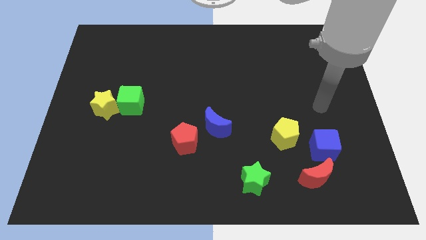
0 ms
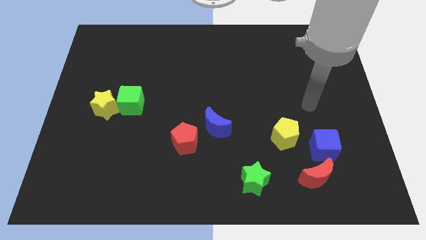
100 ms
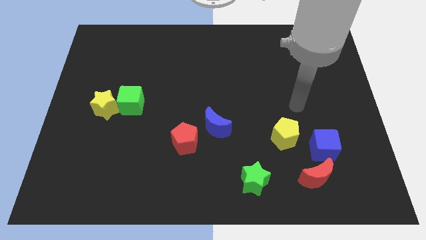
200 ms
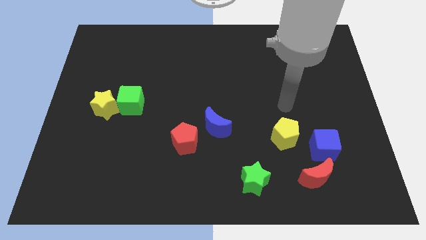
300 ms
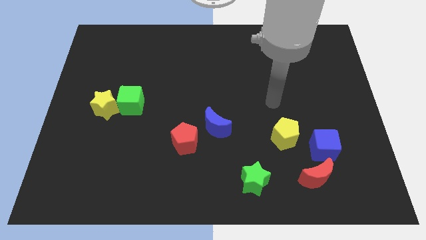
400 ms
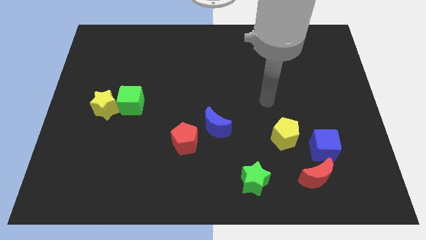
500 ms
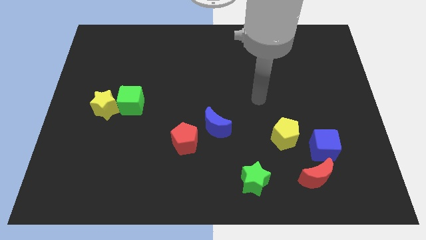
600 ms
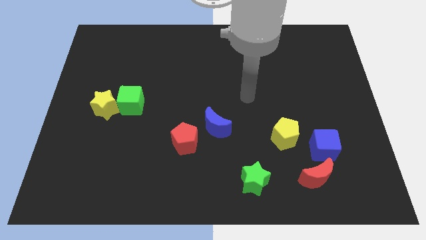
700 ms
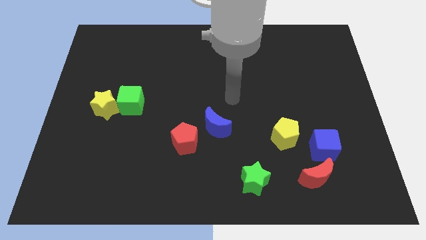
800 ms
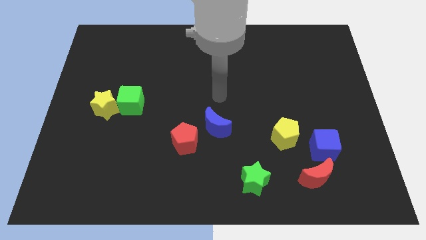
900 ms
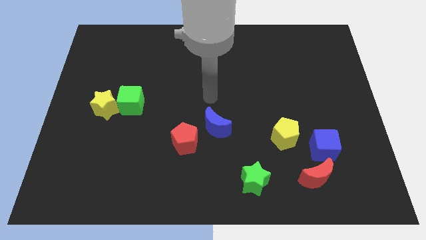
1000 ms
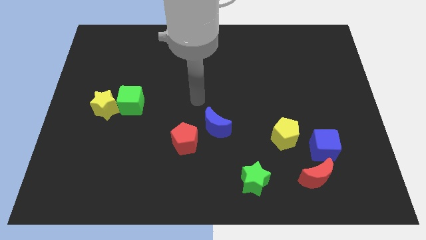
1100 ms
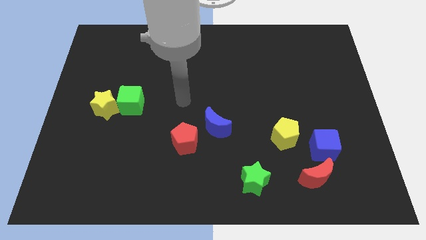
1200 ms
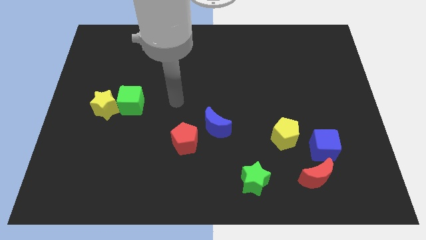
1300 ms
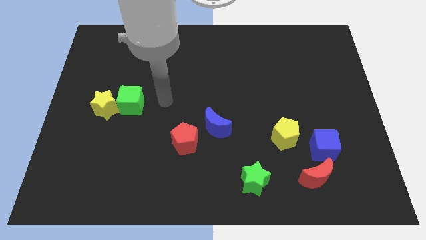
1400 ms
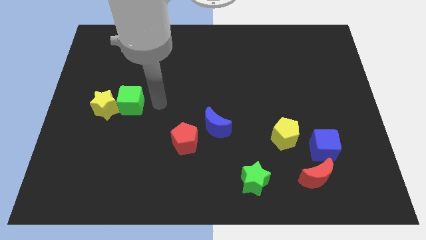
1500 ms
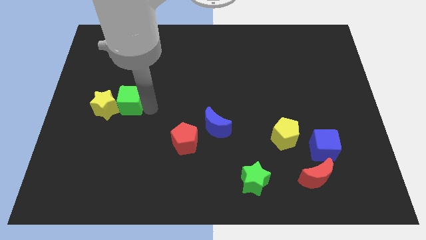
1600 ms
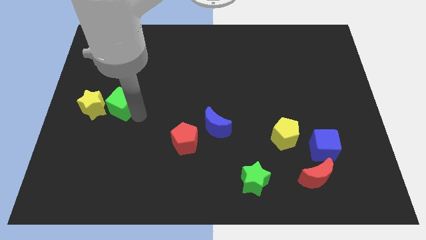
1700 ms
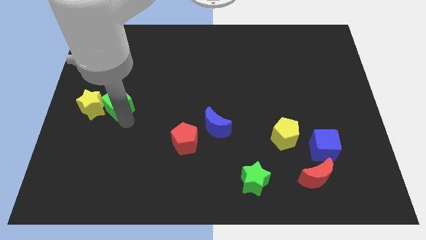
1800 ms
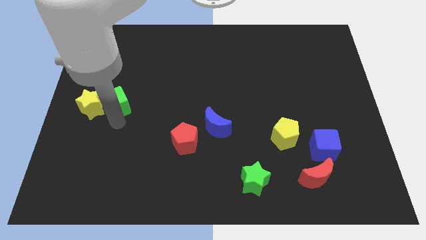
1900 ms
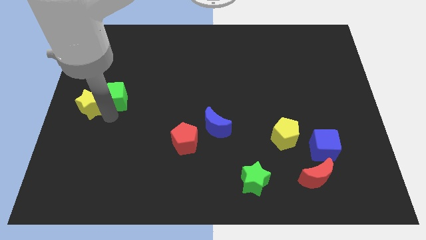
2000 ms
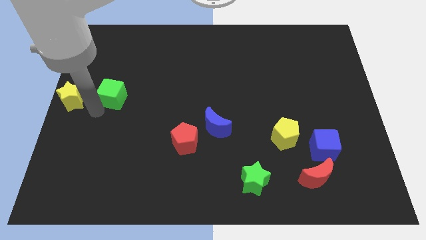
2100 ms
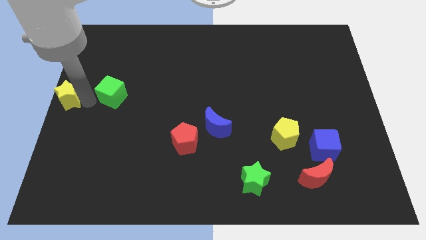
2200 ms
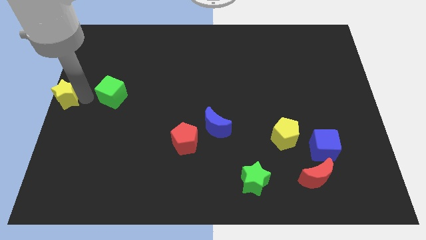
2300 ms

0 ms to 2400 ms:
pull the green cube apart from the yellow star

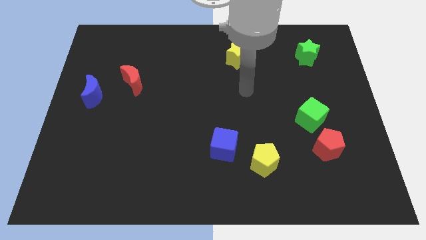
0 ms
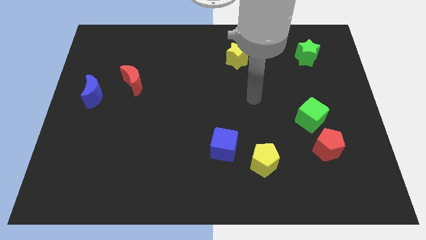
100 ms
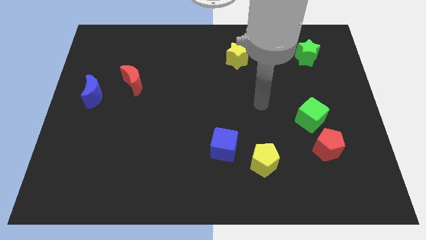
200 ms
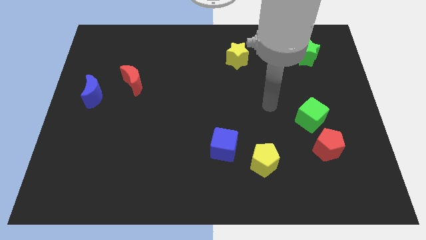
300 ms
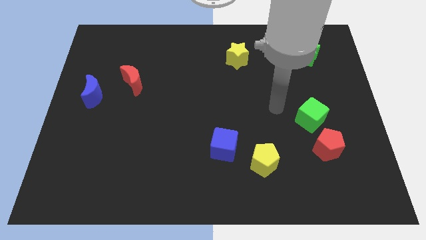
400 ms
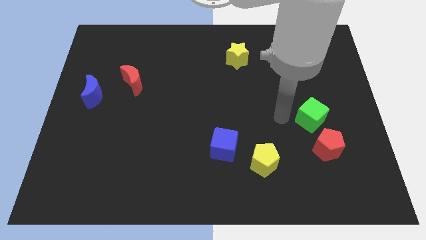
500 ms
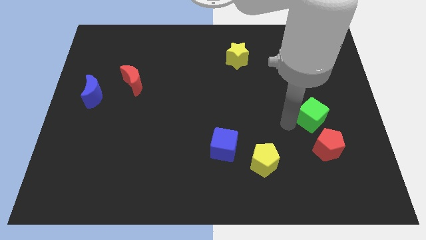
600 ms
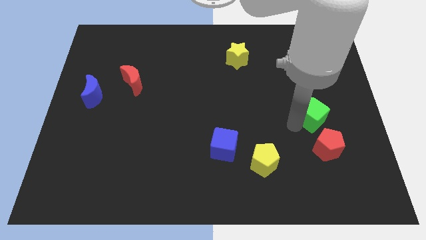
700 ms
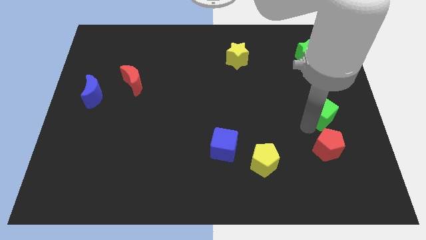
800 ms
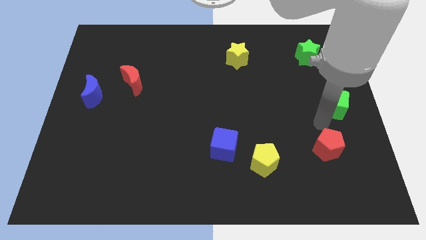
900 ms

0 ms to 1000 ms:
pull the red pentagon apart from the green cube

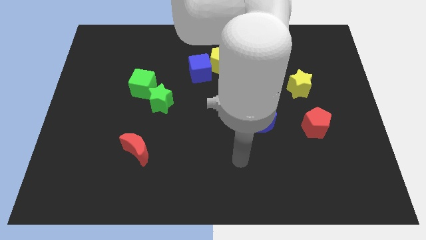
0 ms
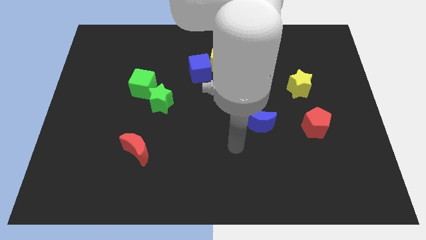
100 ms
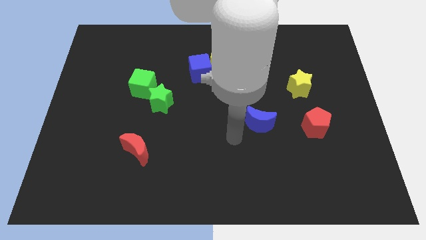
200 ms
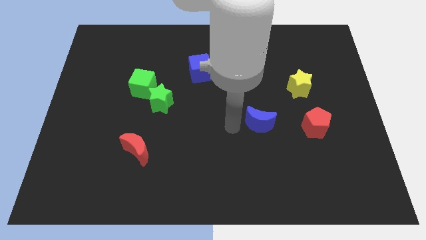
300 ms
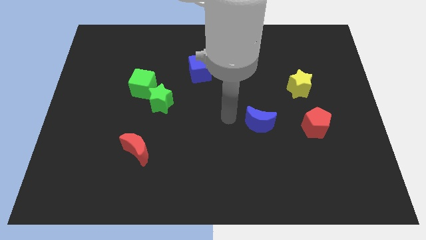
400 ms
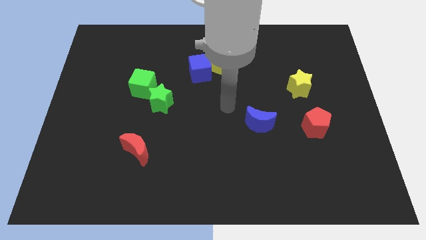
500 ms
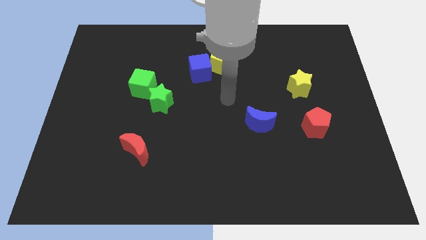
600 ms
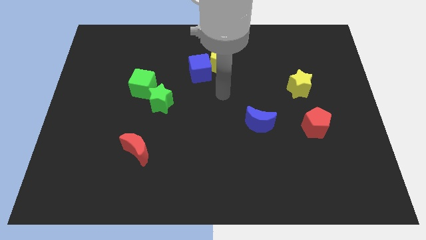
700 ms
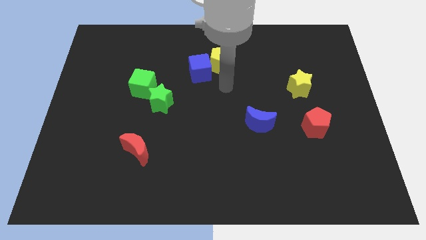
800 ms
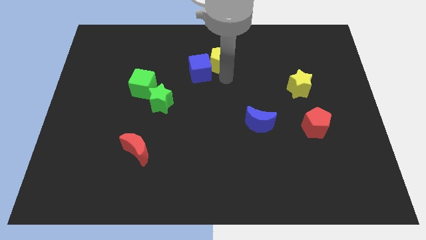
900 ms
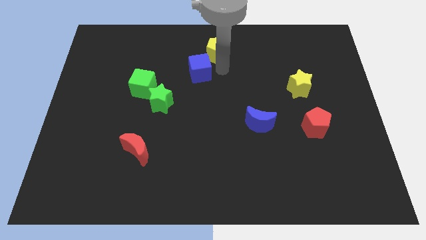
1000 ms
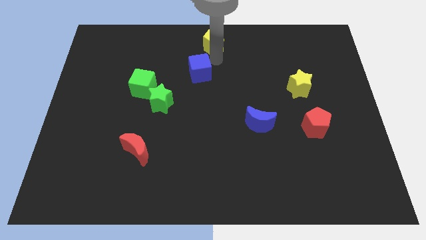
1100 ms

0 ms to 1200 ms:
separate the blue cube from the yellow pentagon

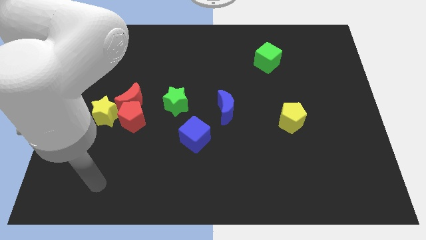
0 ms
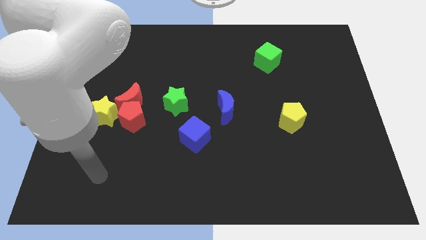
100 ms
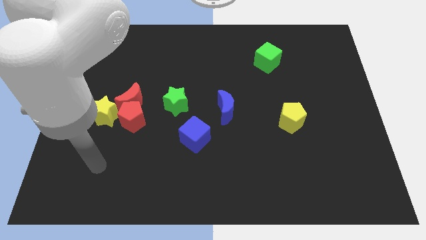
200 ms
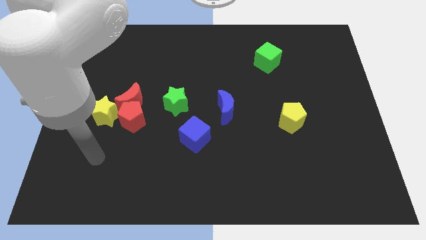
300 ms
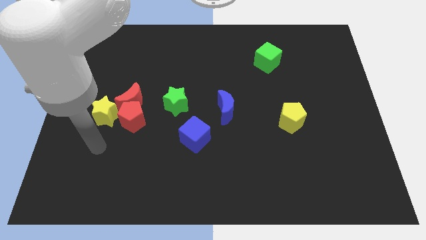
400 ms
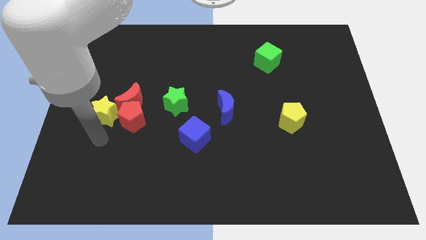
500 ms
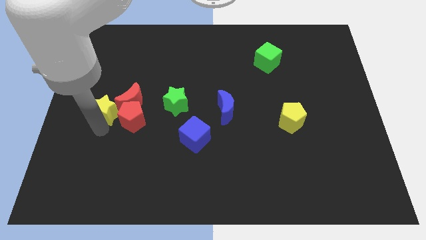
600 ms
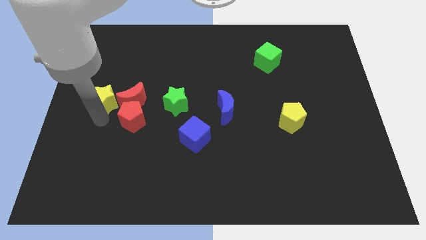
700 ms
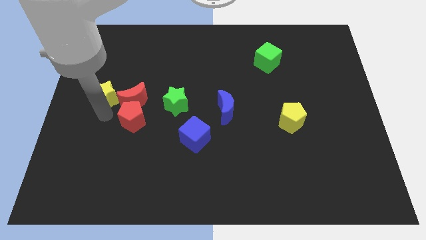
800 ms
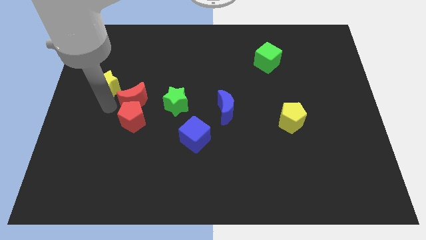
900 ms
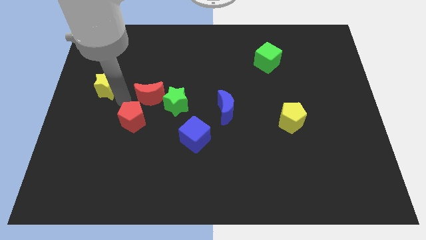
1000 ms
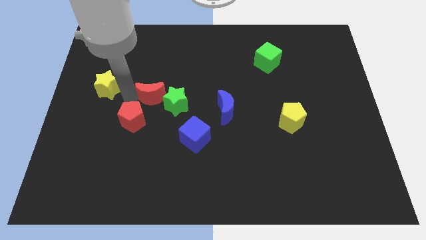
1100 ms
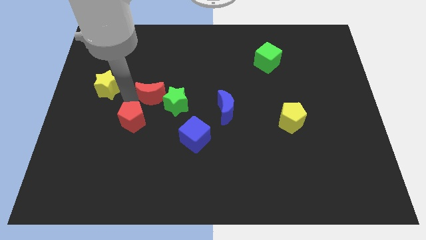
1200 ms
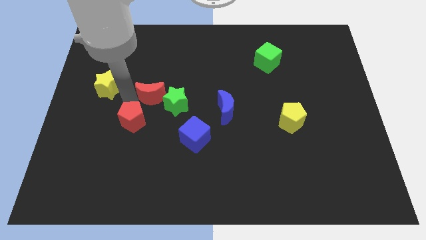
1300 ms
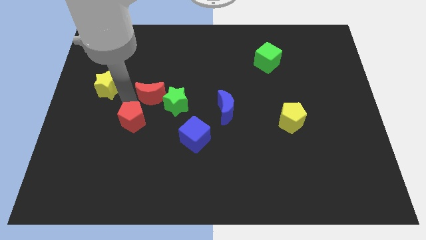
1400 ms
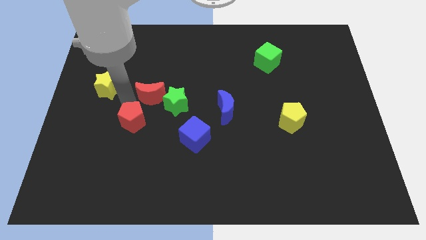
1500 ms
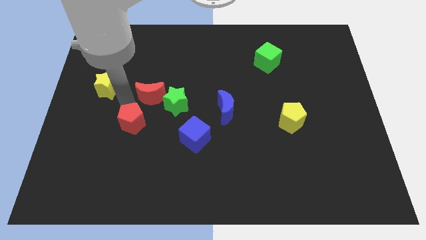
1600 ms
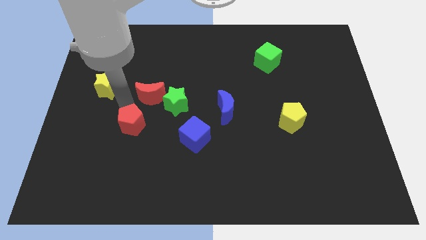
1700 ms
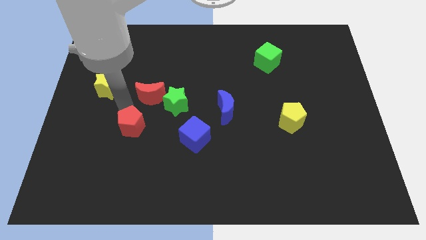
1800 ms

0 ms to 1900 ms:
pull the red pentagon apart from the red moon and yellow star

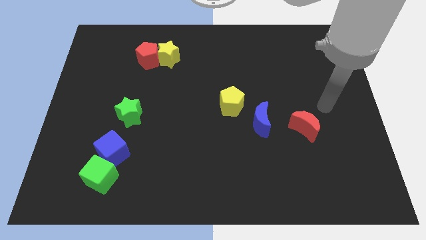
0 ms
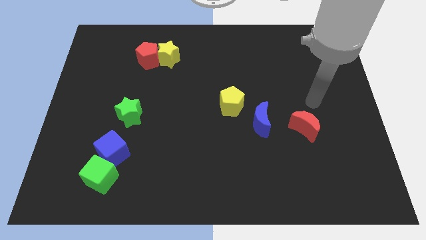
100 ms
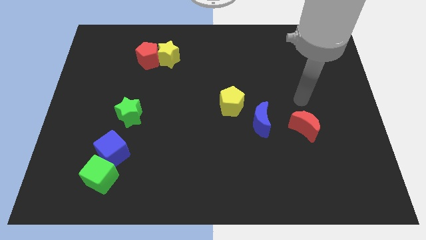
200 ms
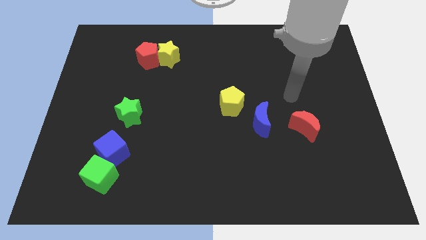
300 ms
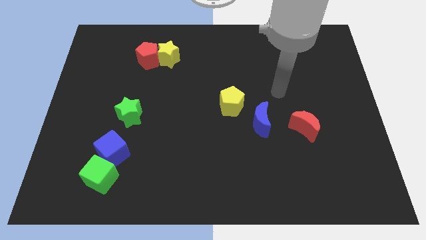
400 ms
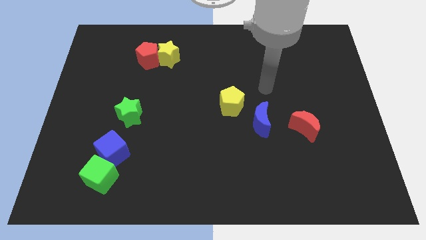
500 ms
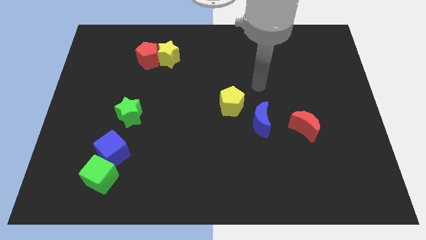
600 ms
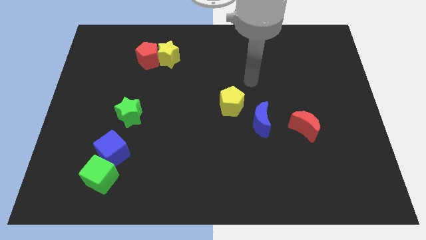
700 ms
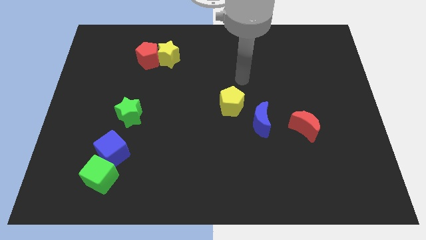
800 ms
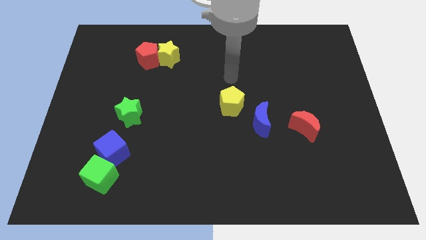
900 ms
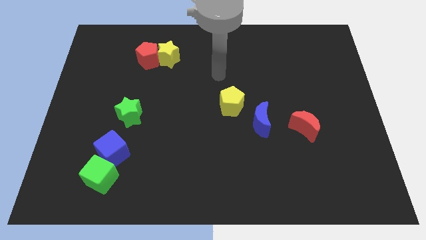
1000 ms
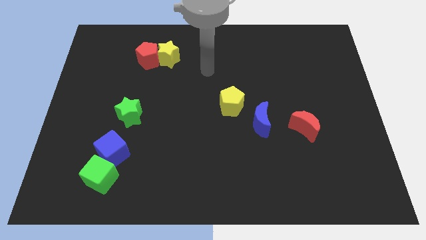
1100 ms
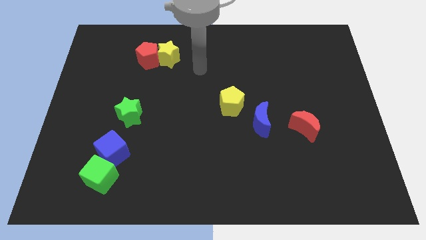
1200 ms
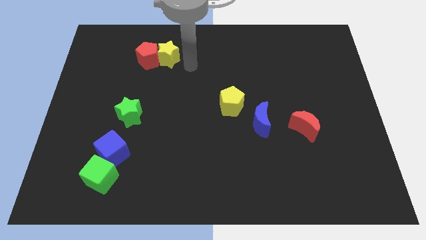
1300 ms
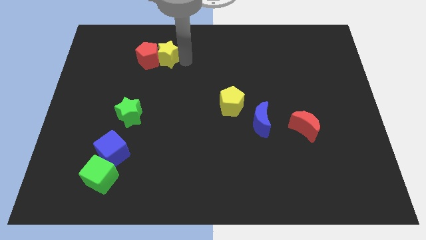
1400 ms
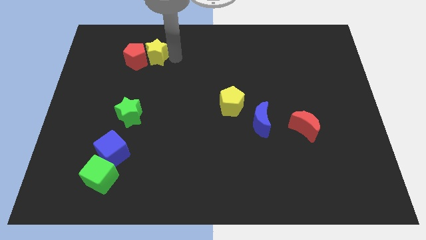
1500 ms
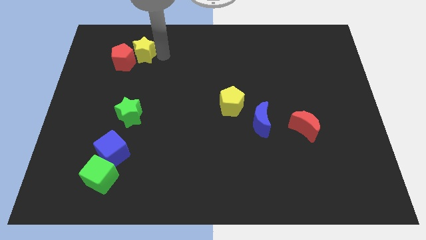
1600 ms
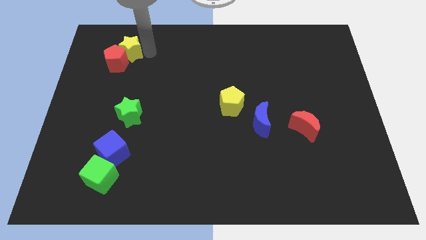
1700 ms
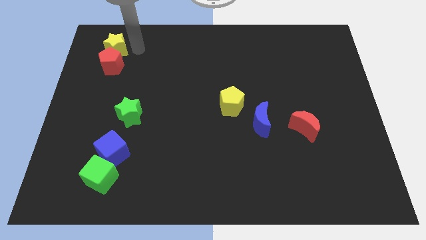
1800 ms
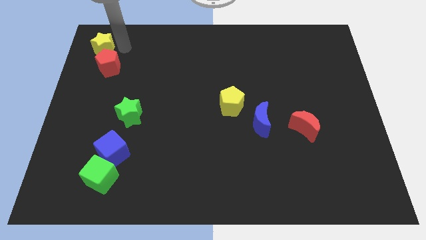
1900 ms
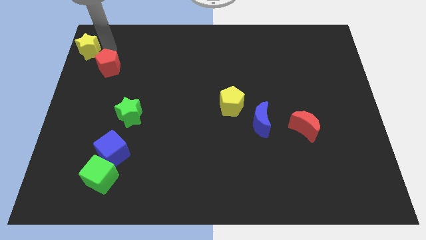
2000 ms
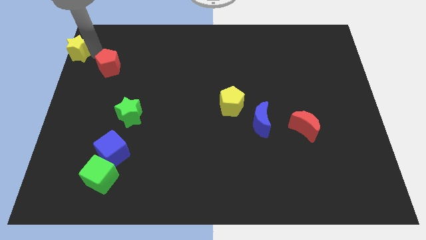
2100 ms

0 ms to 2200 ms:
move the red pentagon away from the yellow star

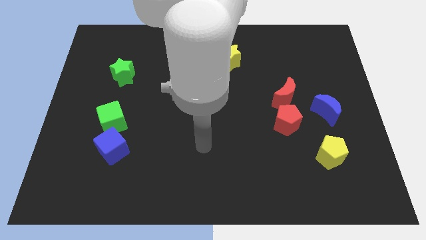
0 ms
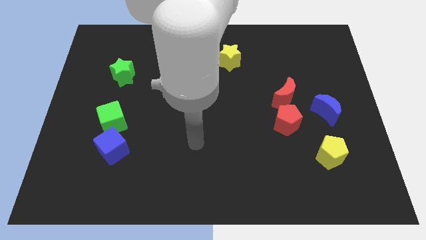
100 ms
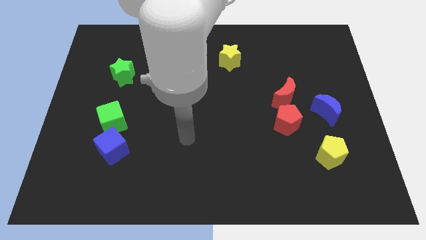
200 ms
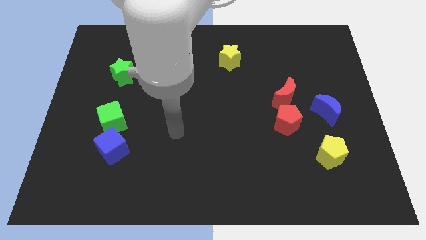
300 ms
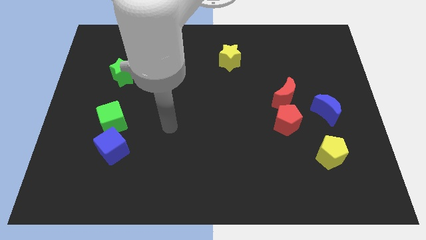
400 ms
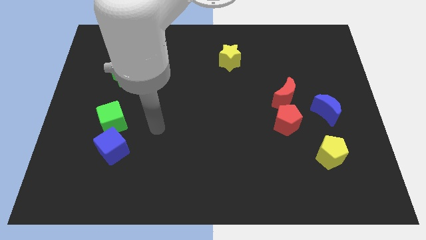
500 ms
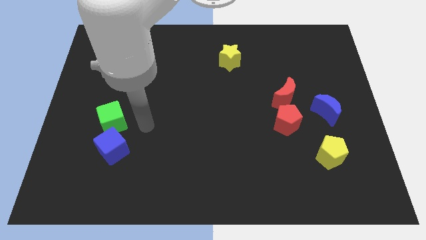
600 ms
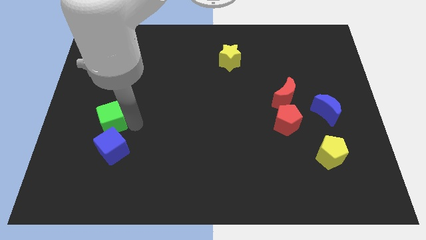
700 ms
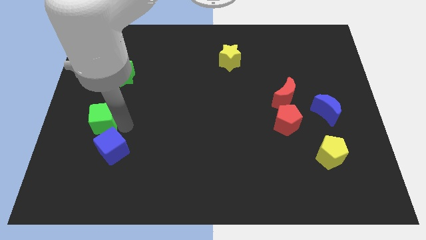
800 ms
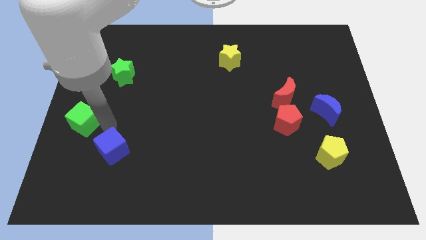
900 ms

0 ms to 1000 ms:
pull the blue cube apart from the green cube
